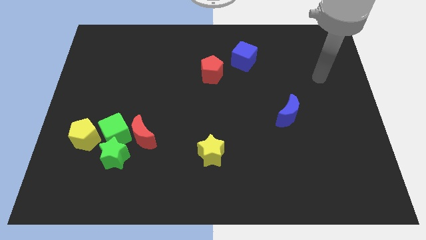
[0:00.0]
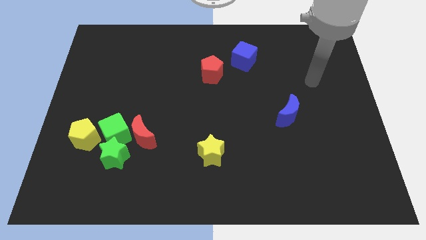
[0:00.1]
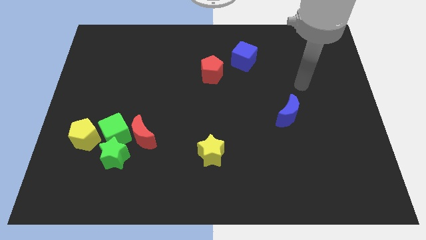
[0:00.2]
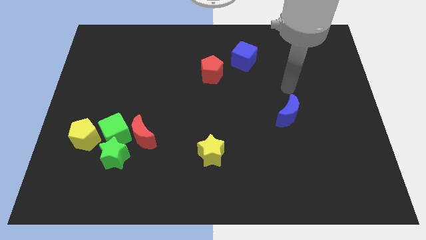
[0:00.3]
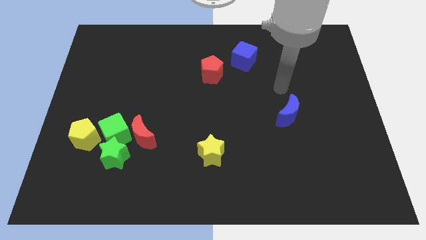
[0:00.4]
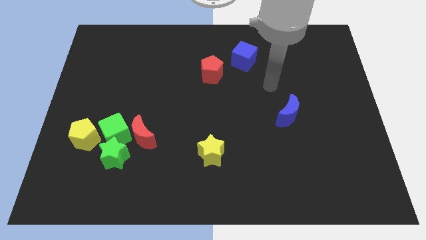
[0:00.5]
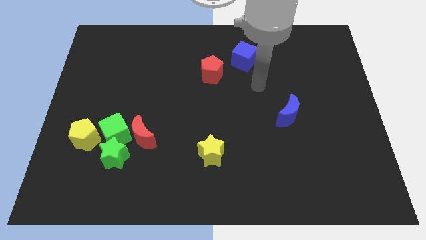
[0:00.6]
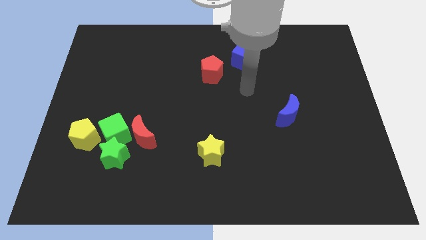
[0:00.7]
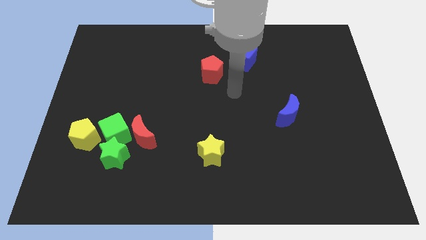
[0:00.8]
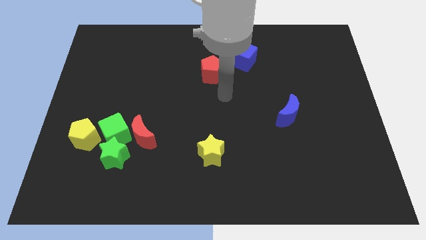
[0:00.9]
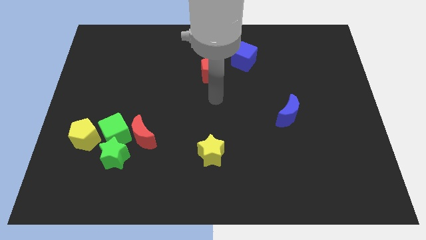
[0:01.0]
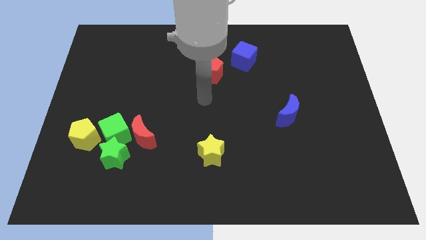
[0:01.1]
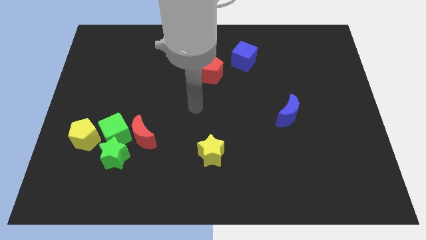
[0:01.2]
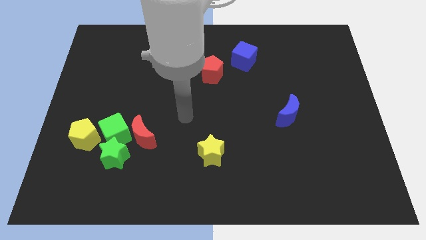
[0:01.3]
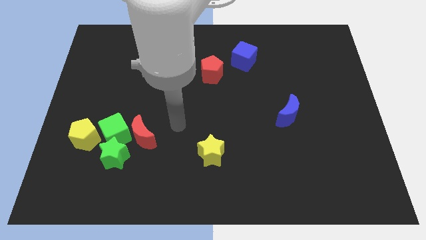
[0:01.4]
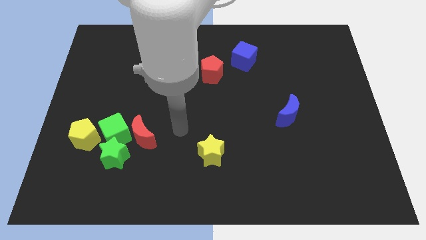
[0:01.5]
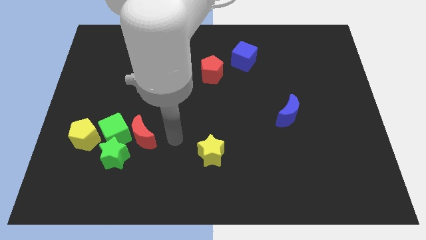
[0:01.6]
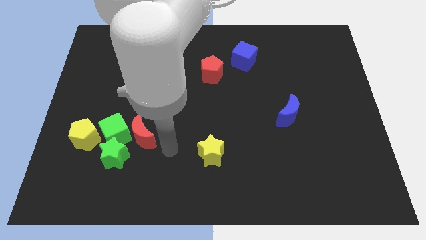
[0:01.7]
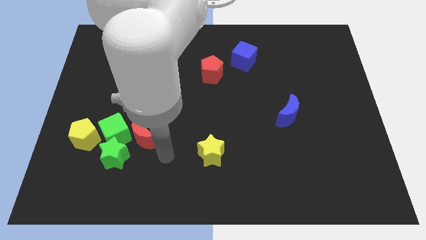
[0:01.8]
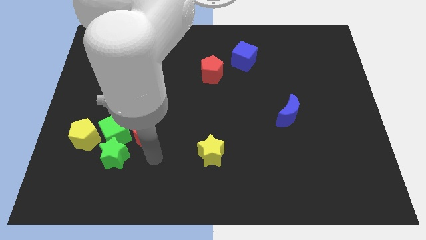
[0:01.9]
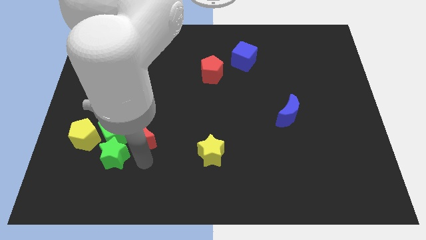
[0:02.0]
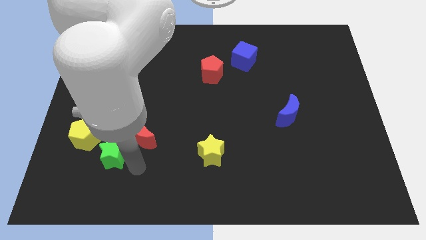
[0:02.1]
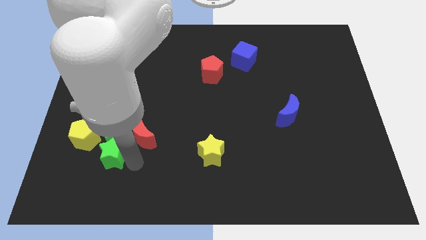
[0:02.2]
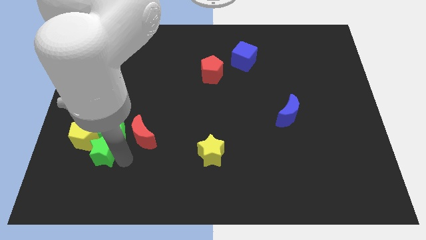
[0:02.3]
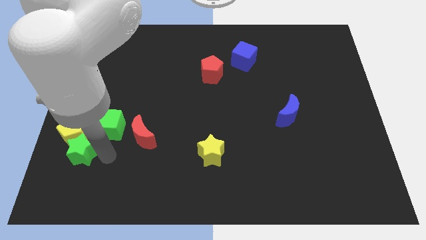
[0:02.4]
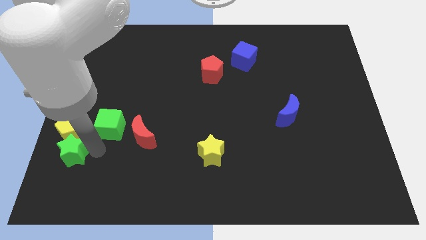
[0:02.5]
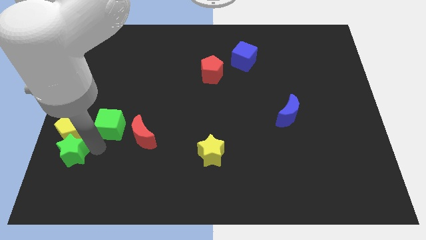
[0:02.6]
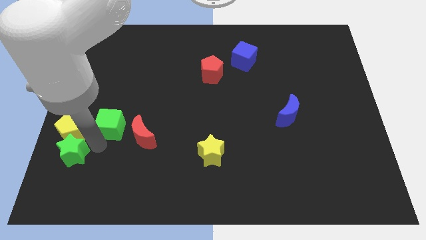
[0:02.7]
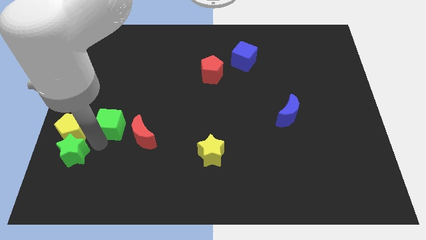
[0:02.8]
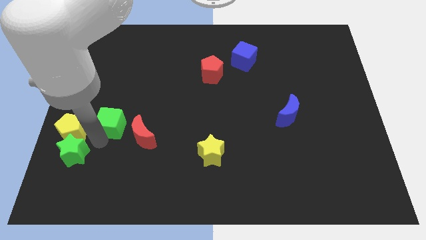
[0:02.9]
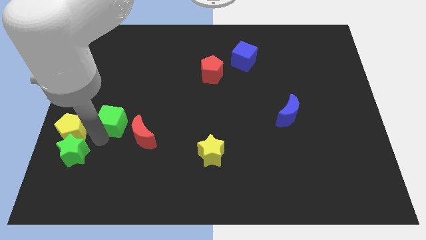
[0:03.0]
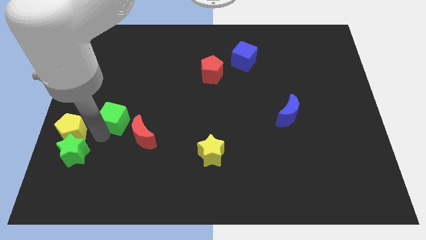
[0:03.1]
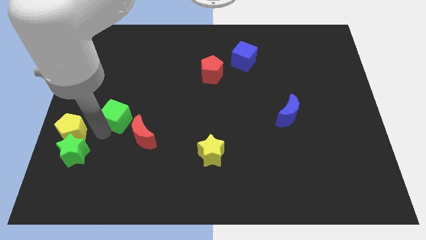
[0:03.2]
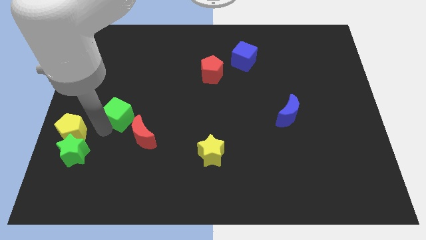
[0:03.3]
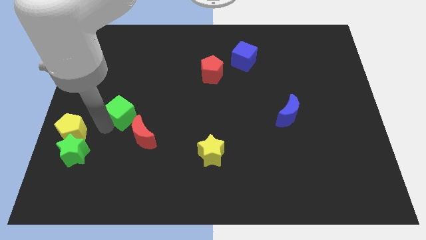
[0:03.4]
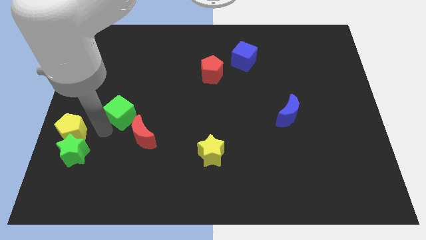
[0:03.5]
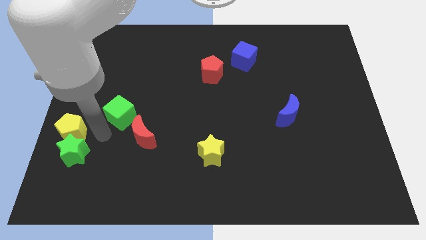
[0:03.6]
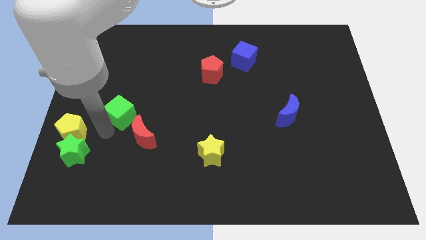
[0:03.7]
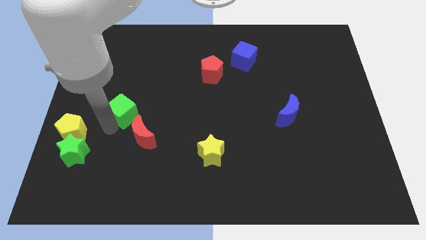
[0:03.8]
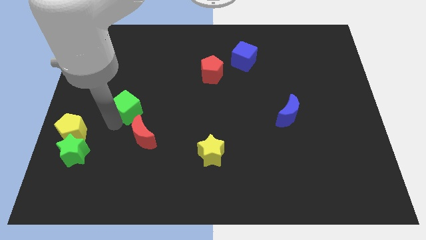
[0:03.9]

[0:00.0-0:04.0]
move the green cube away from the group of blocks

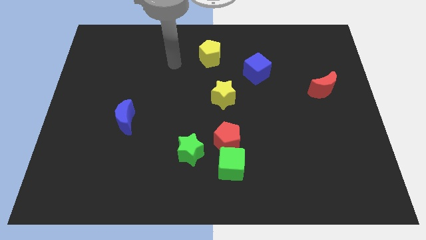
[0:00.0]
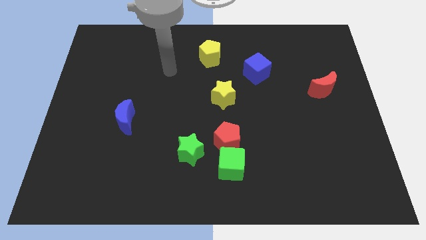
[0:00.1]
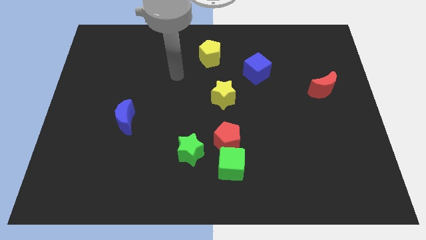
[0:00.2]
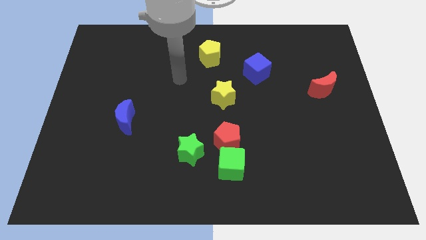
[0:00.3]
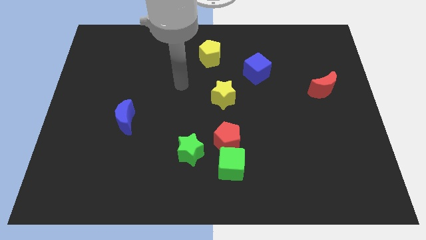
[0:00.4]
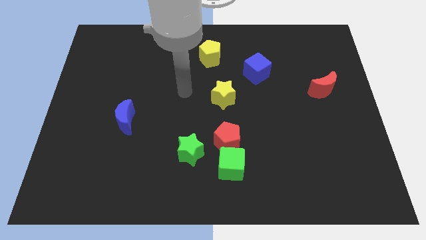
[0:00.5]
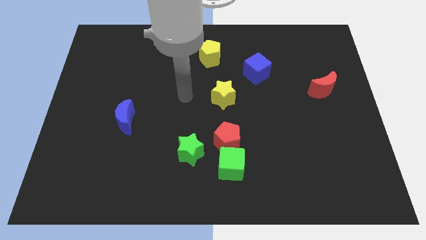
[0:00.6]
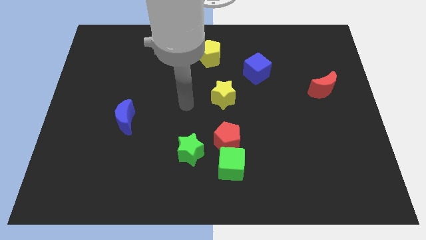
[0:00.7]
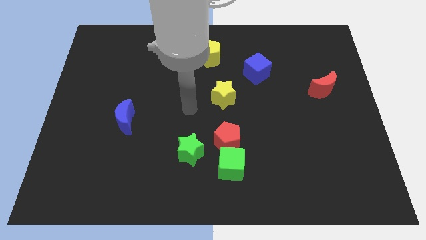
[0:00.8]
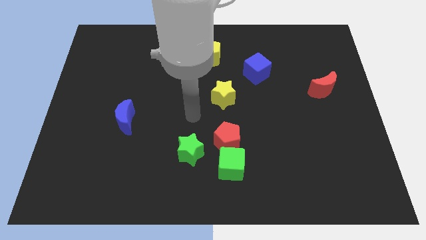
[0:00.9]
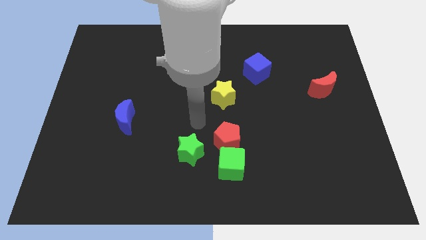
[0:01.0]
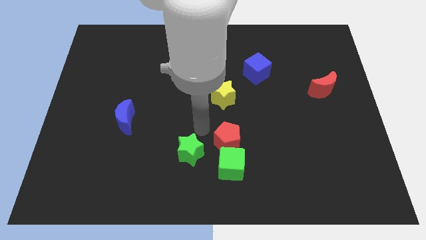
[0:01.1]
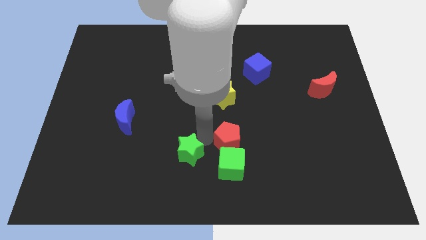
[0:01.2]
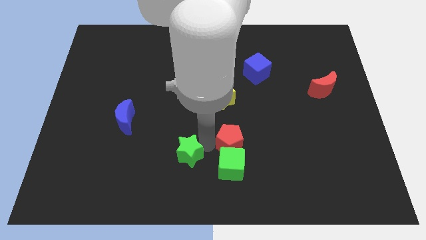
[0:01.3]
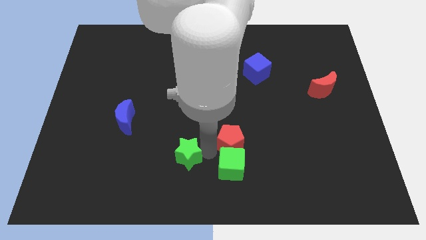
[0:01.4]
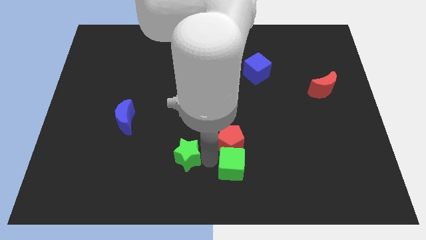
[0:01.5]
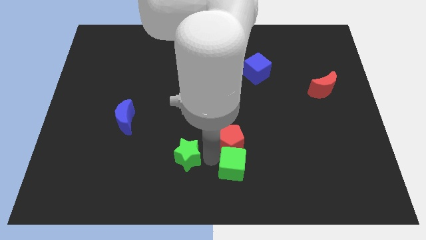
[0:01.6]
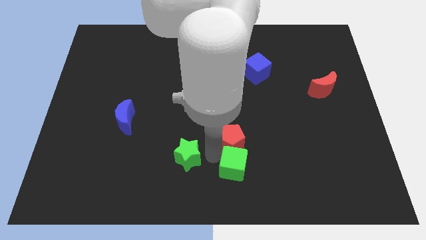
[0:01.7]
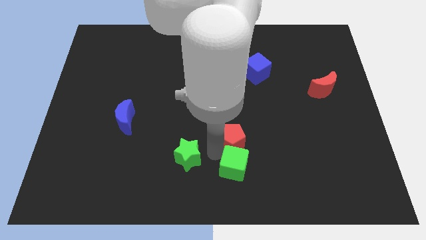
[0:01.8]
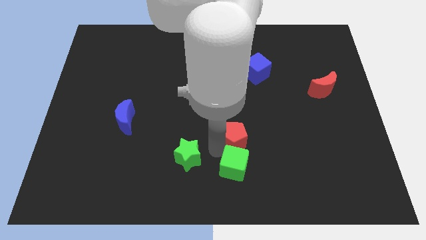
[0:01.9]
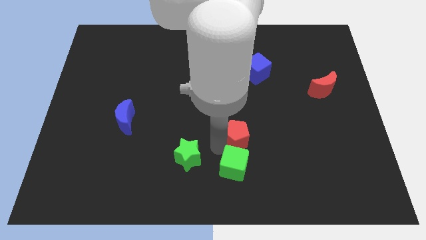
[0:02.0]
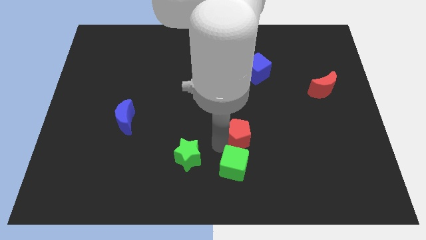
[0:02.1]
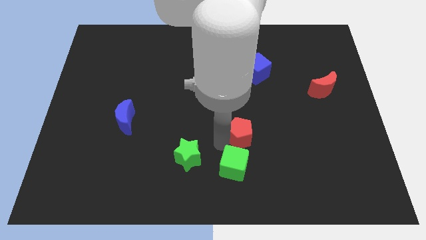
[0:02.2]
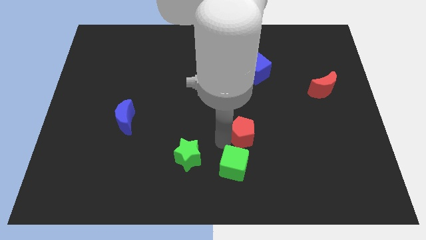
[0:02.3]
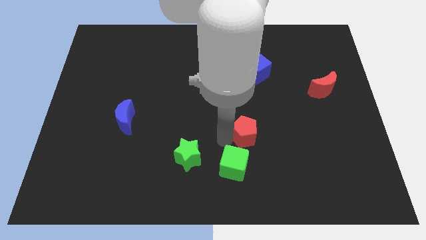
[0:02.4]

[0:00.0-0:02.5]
separate the red pentagon from the green cube and green star

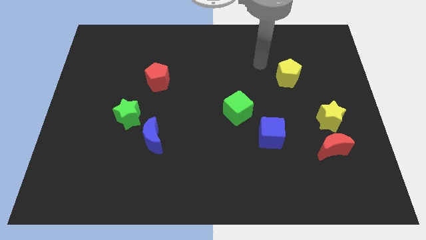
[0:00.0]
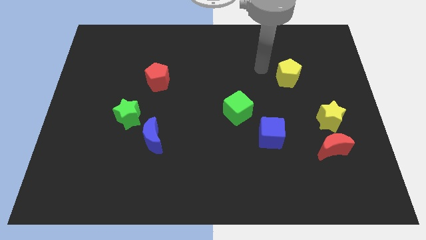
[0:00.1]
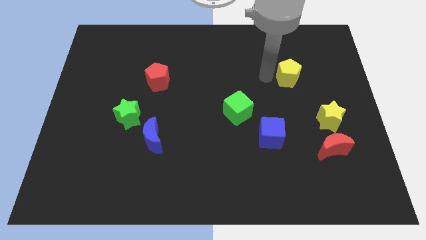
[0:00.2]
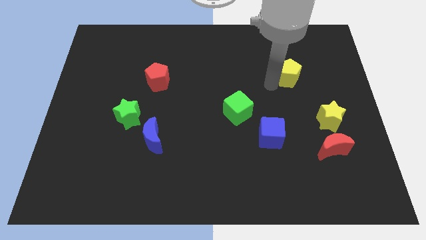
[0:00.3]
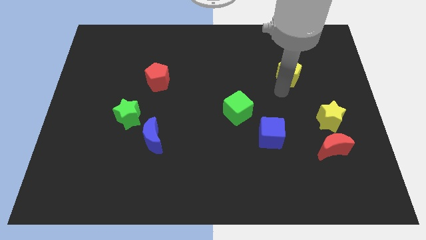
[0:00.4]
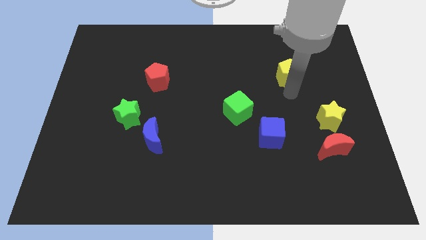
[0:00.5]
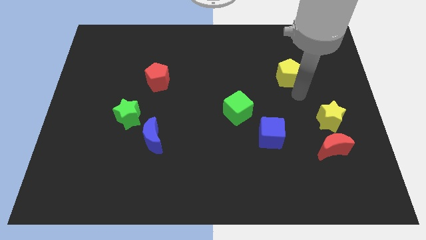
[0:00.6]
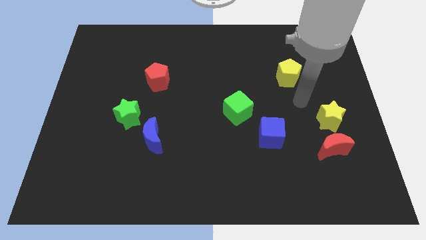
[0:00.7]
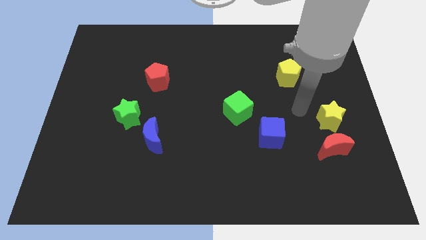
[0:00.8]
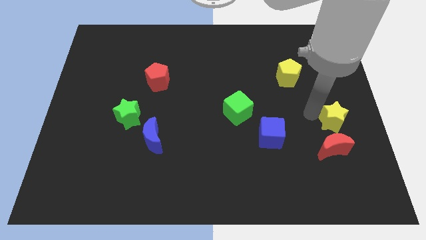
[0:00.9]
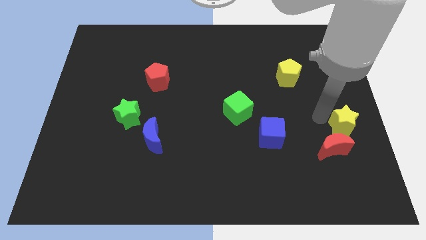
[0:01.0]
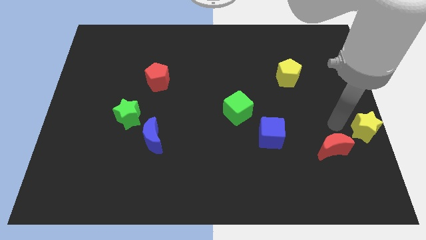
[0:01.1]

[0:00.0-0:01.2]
separate the red moon from the yellow star

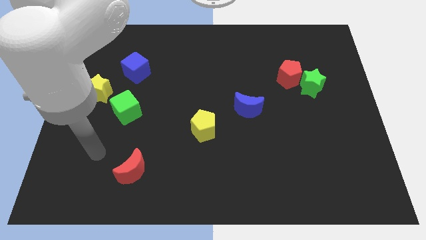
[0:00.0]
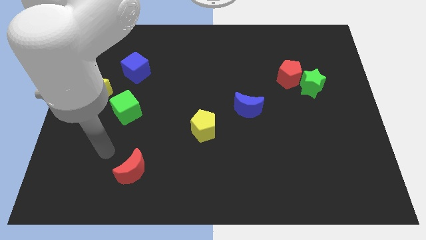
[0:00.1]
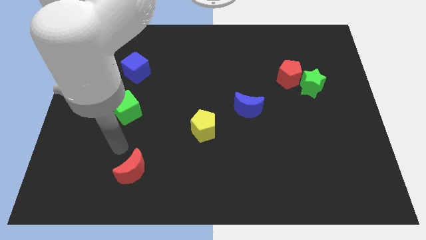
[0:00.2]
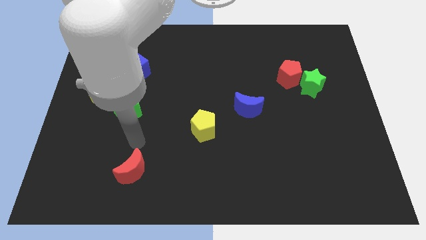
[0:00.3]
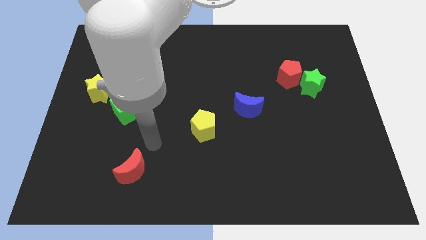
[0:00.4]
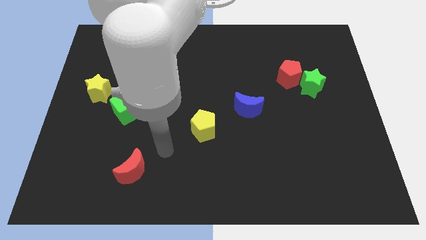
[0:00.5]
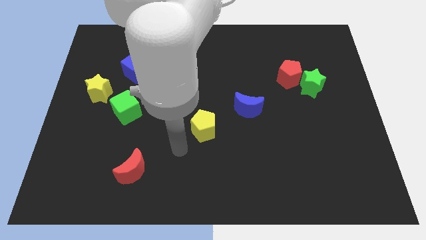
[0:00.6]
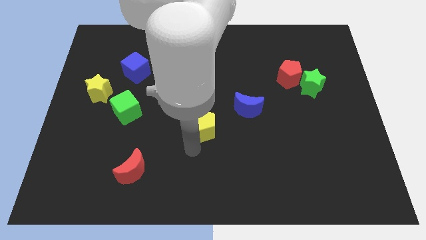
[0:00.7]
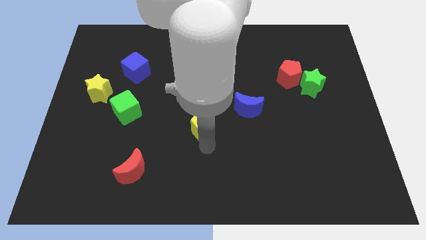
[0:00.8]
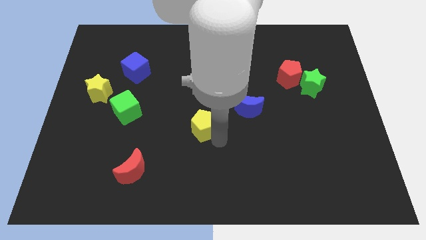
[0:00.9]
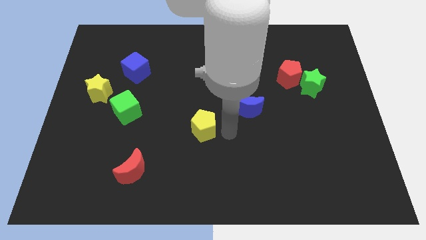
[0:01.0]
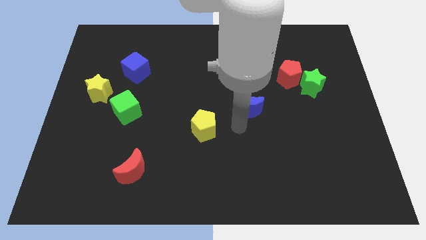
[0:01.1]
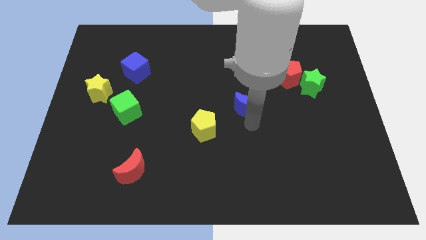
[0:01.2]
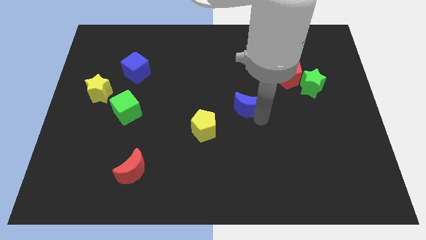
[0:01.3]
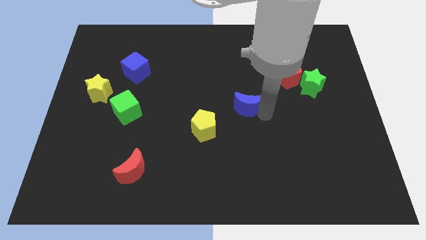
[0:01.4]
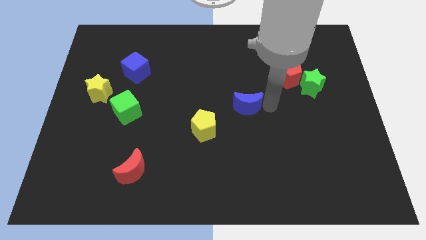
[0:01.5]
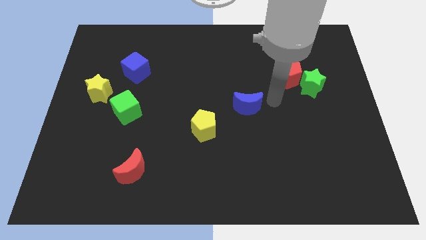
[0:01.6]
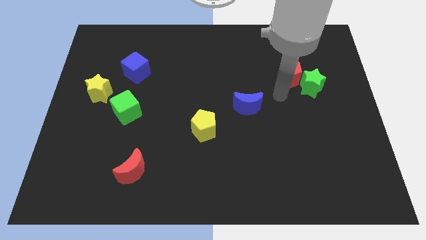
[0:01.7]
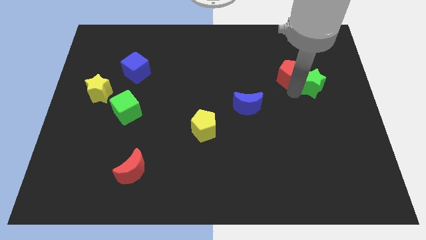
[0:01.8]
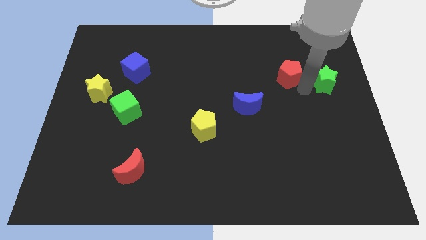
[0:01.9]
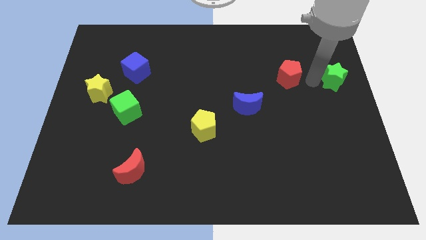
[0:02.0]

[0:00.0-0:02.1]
separate the red pentagon from the green star
